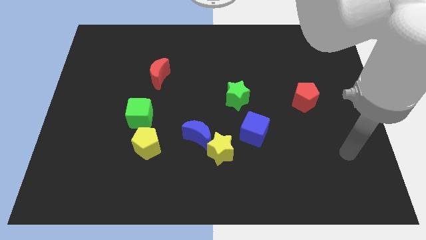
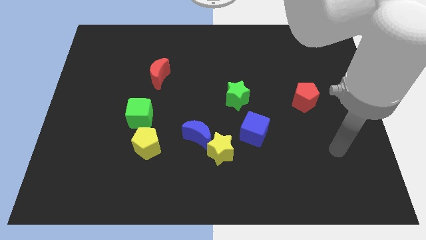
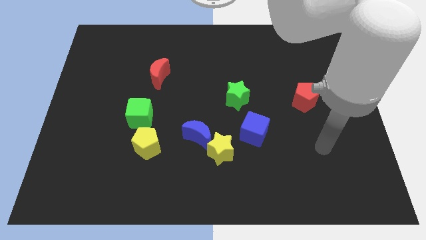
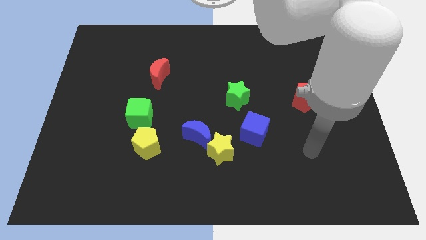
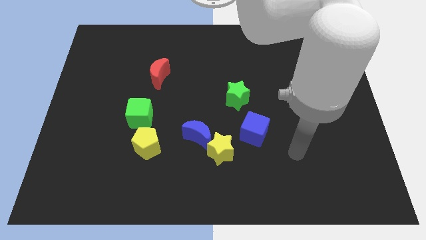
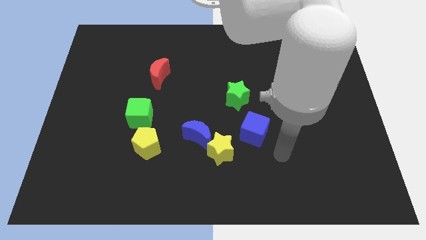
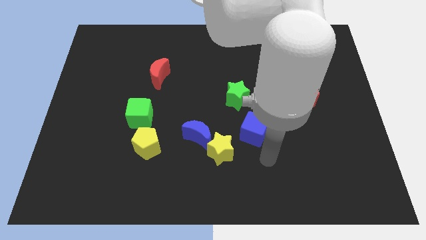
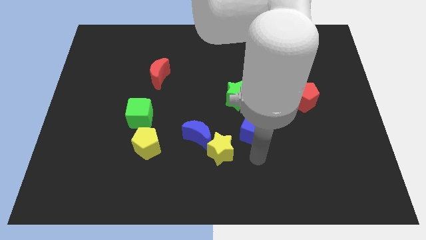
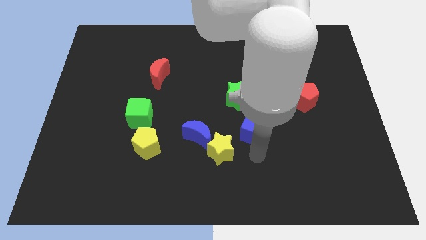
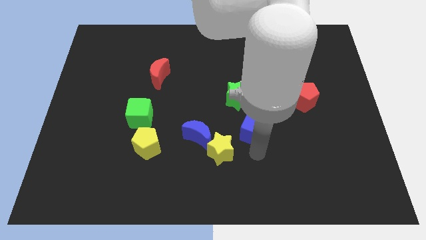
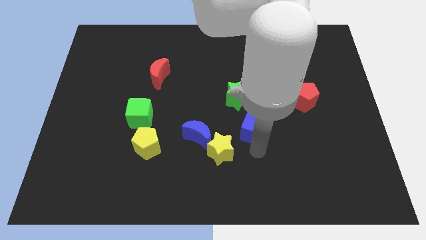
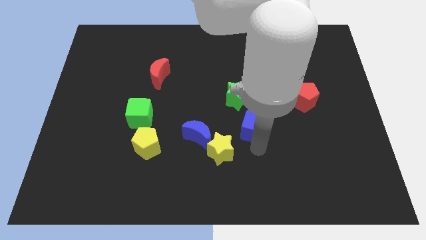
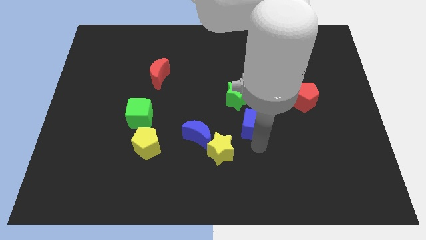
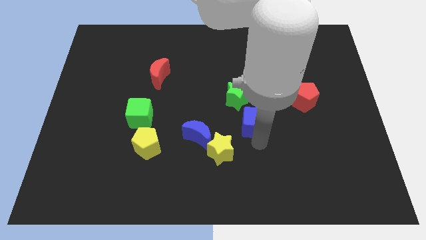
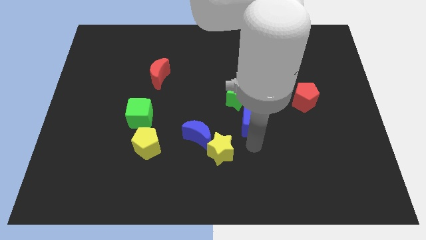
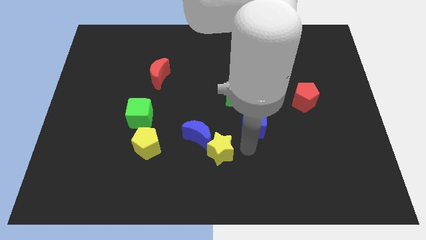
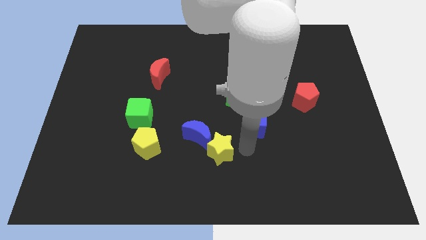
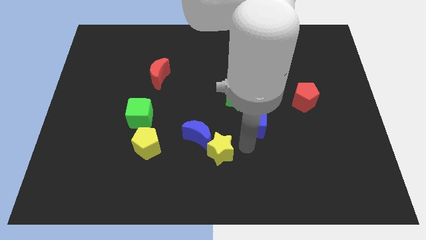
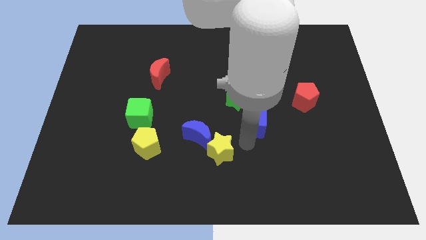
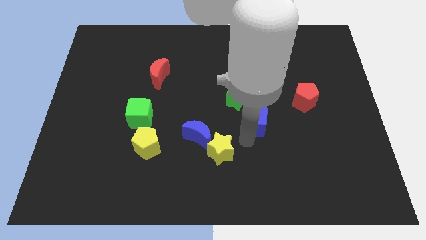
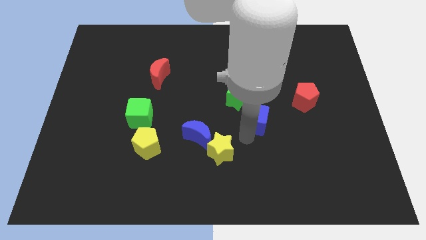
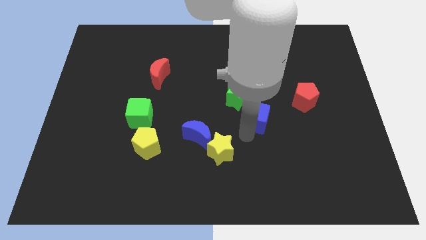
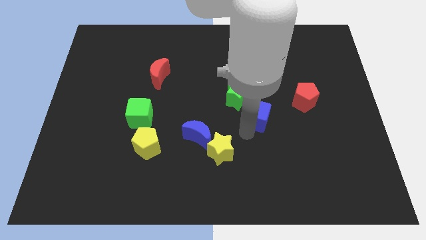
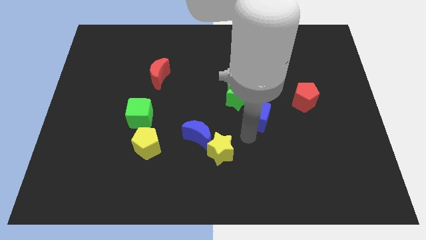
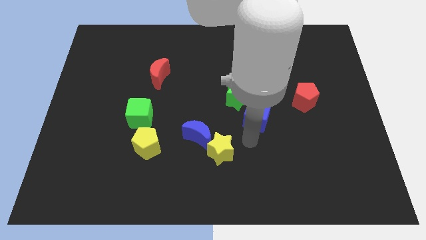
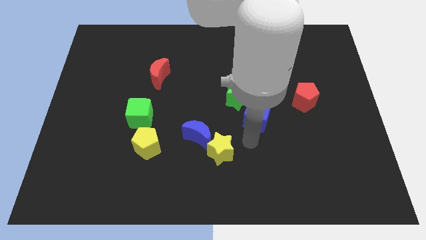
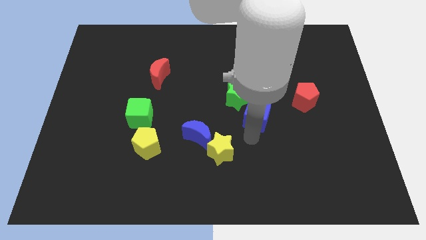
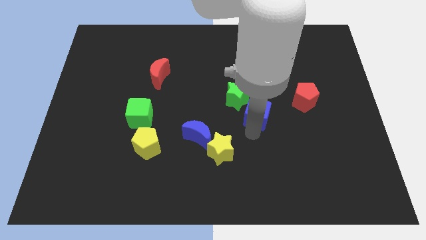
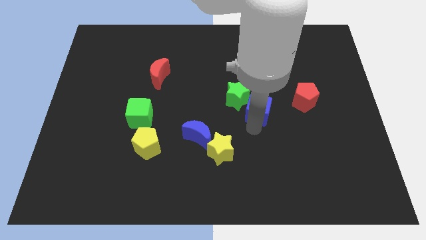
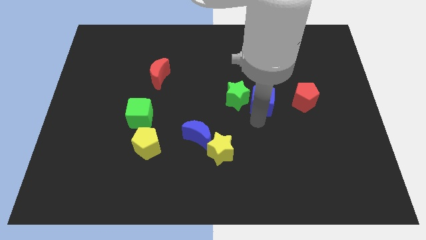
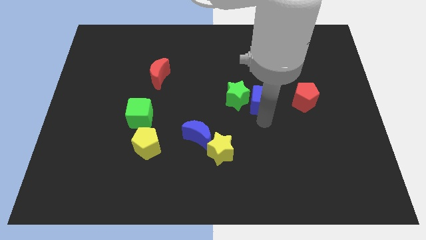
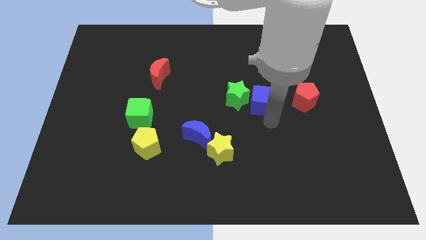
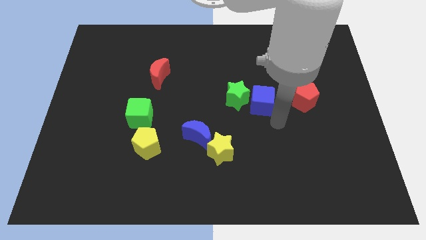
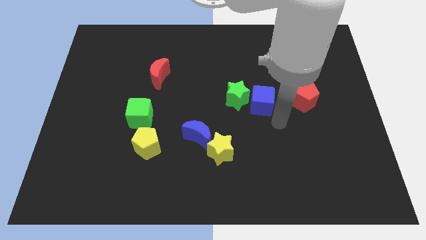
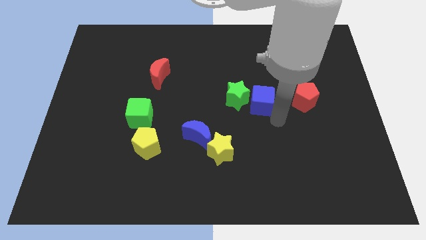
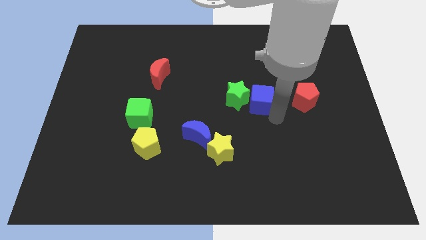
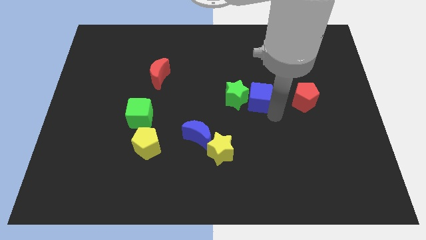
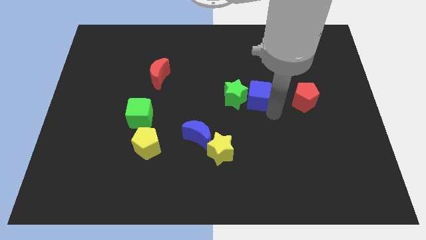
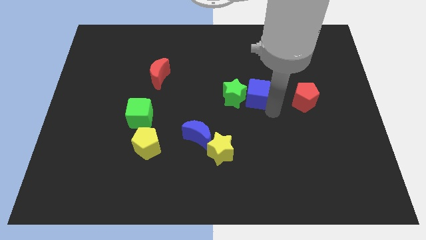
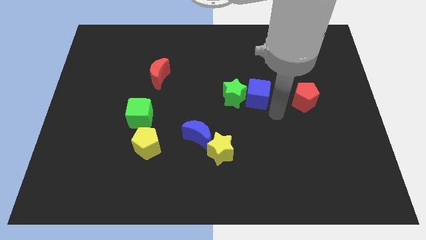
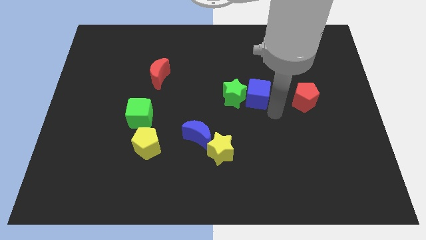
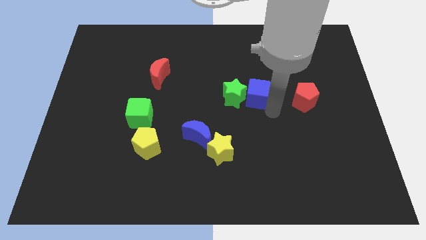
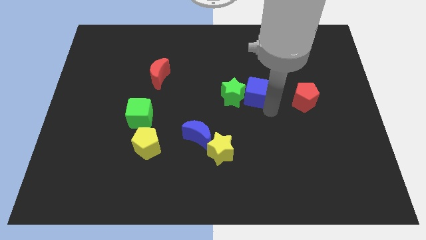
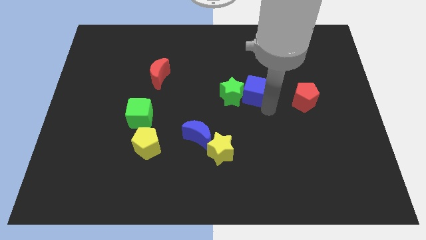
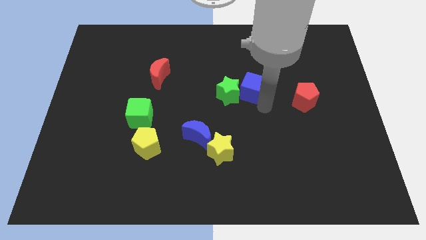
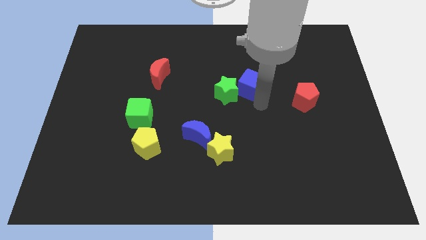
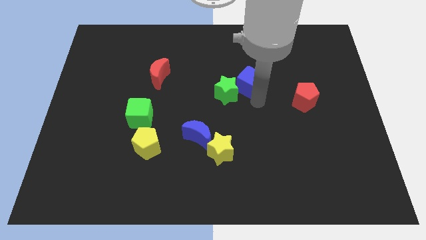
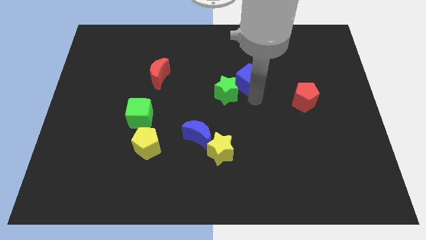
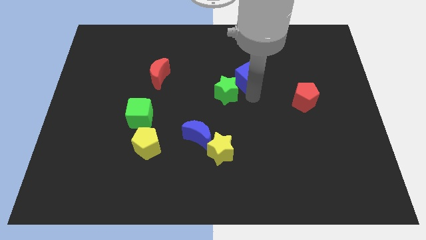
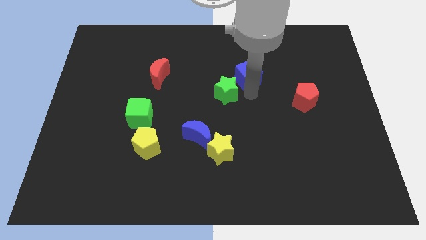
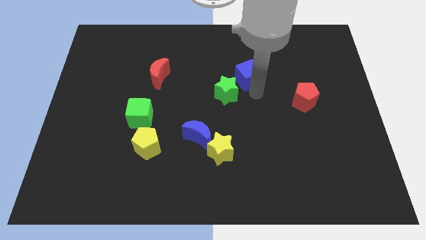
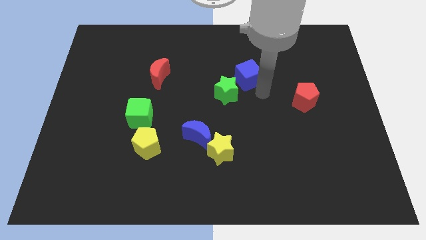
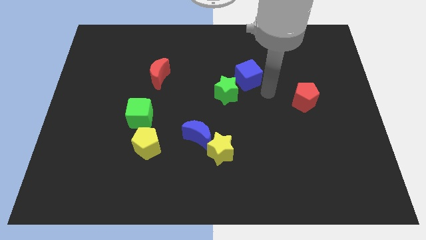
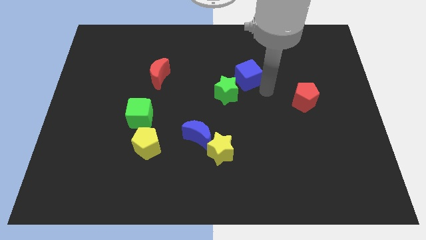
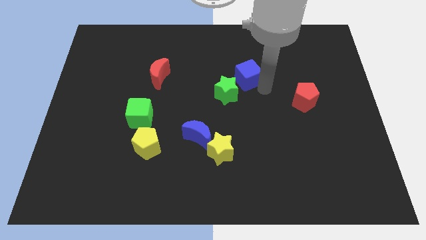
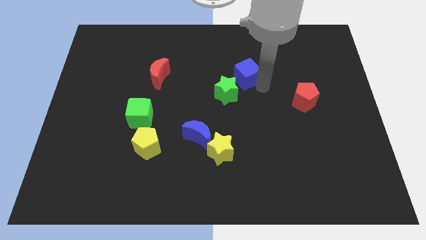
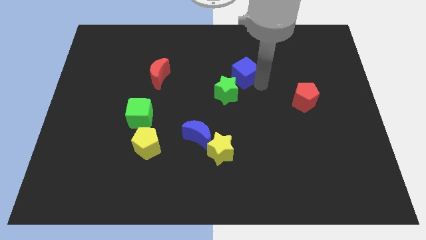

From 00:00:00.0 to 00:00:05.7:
push the blue cube to the top side of the green star

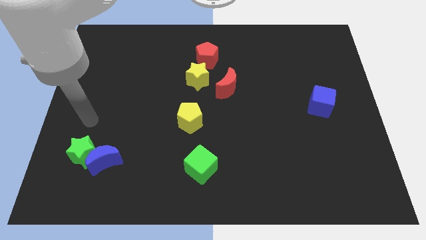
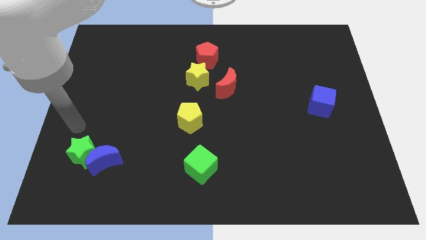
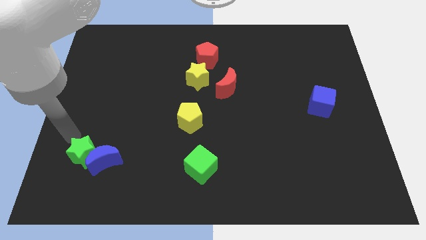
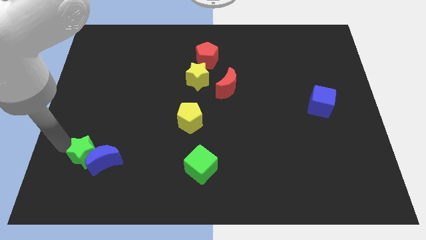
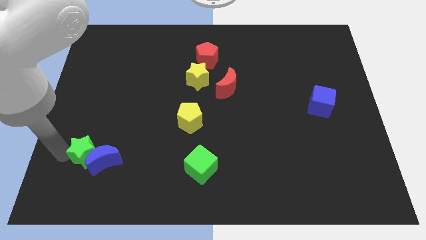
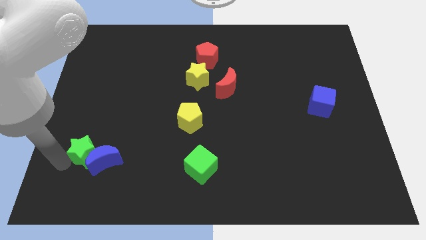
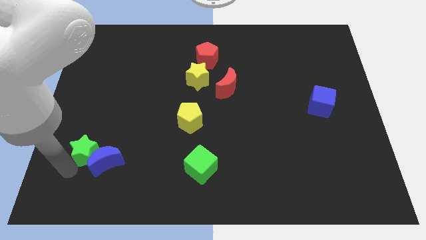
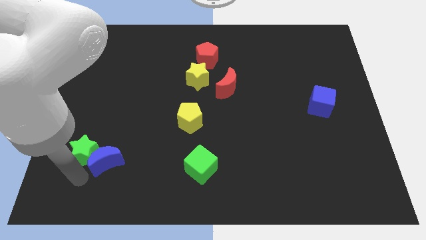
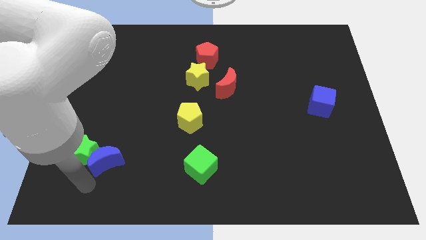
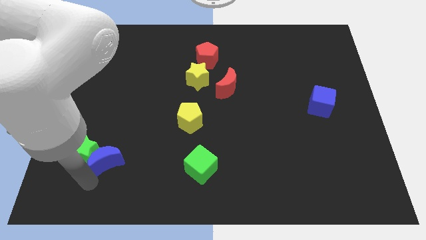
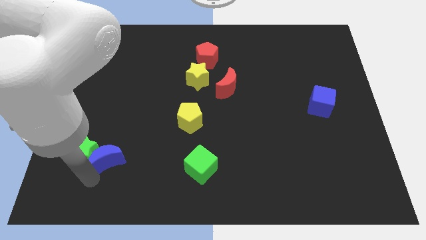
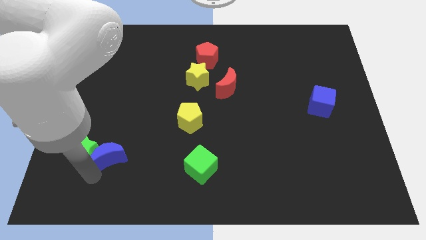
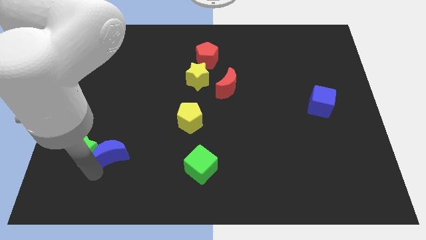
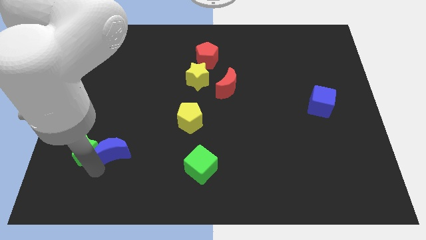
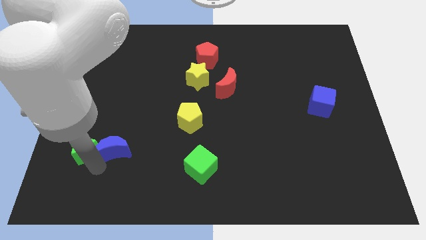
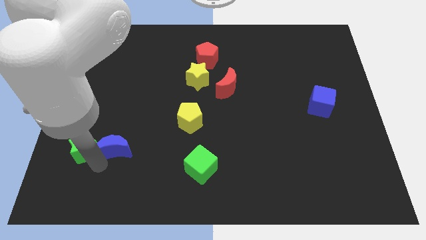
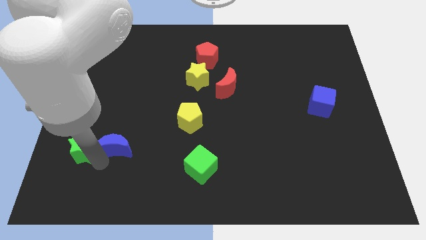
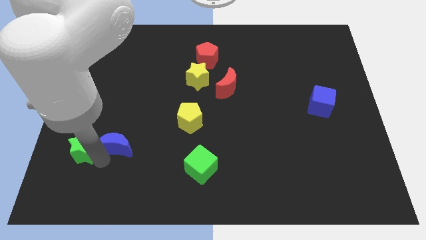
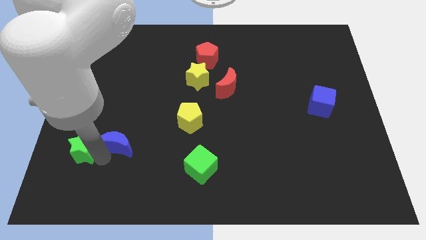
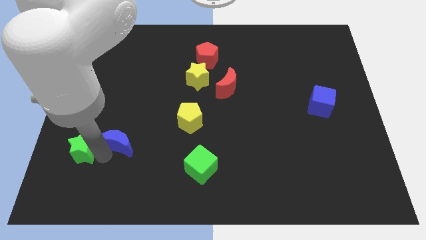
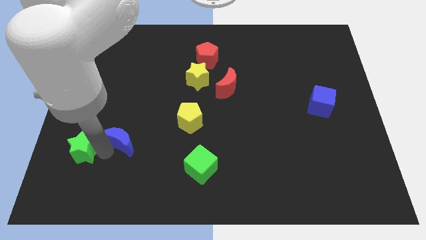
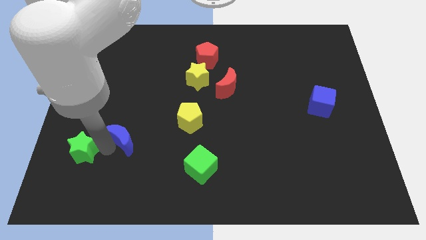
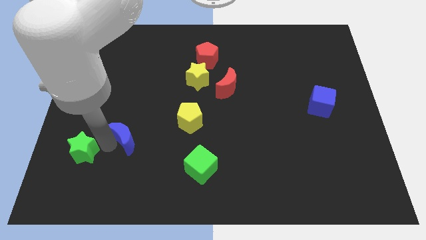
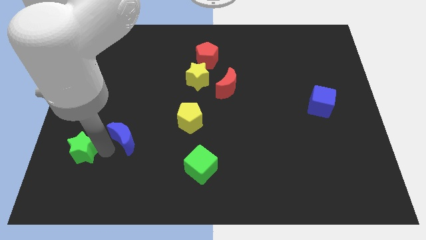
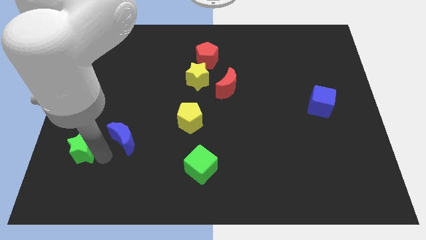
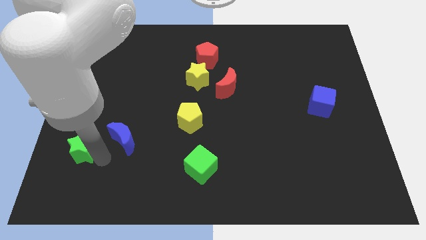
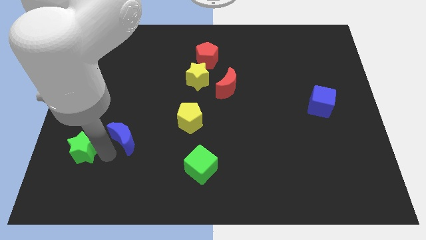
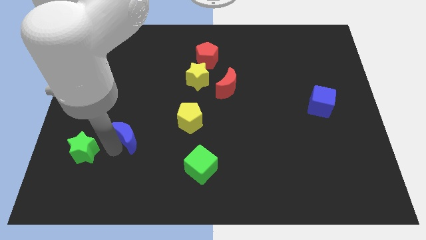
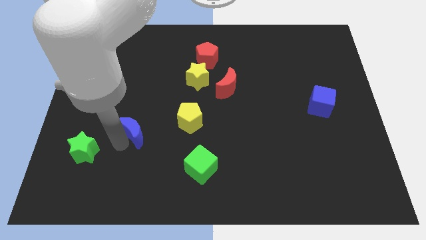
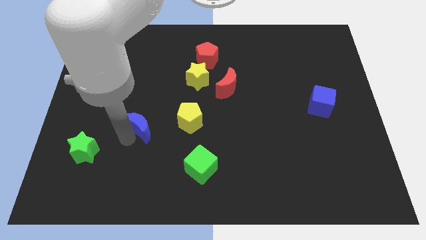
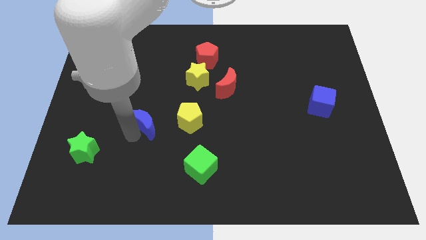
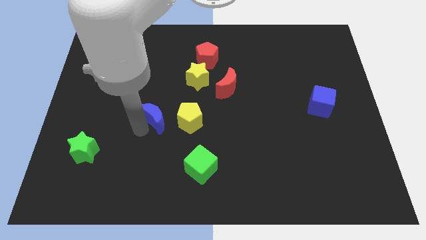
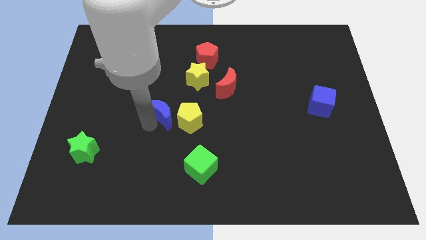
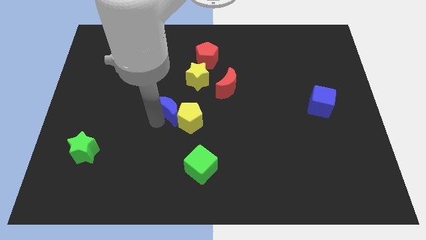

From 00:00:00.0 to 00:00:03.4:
slide the blue moon to the bottom left side of the yellow star
